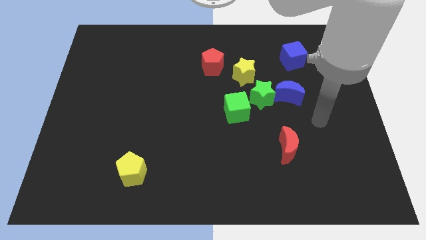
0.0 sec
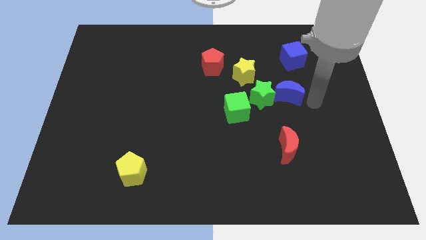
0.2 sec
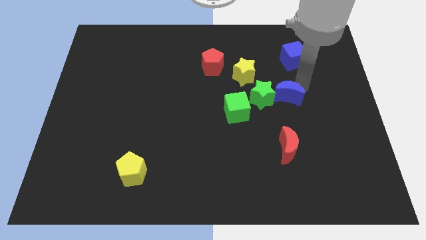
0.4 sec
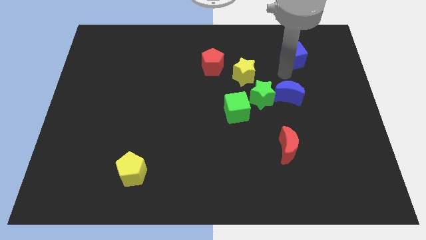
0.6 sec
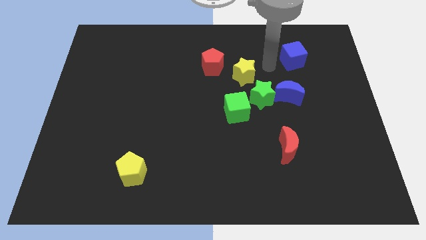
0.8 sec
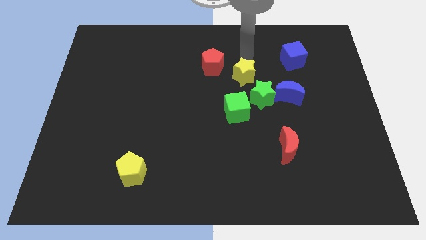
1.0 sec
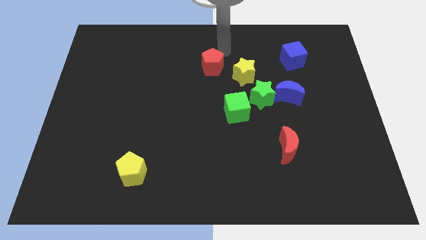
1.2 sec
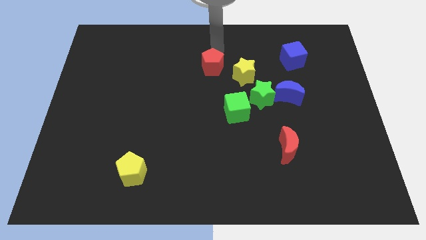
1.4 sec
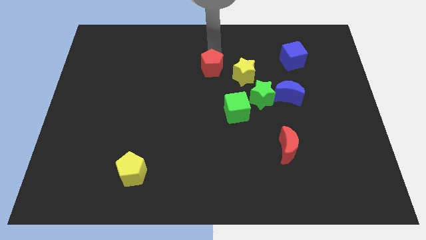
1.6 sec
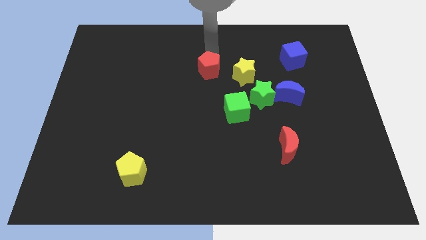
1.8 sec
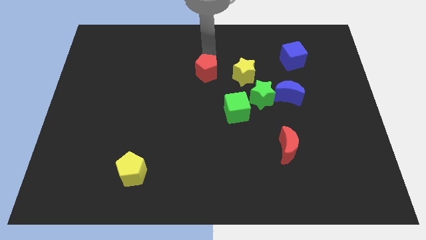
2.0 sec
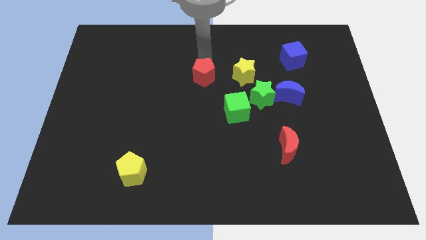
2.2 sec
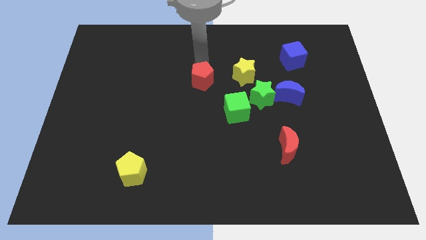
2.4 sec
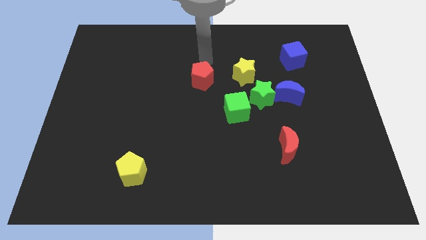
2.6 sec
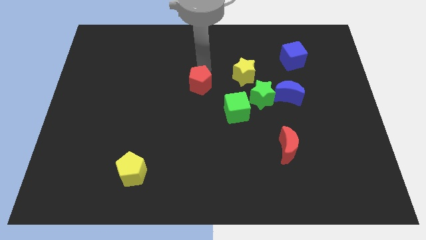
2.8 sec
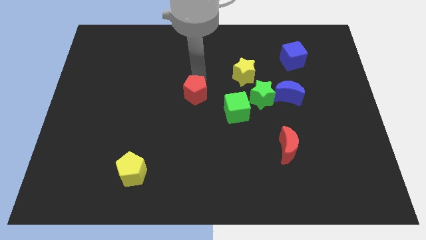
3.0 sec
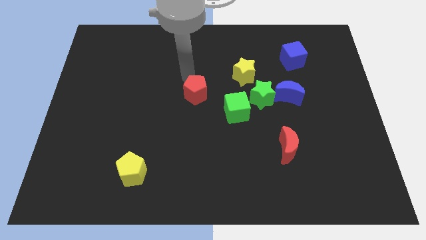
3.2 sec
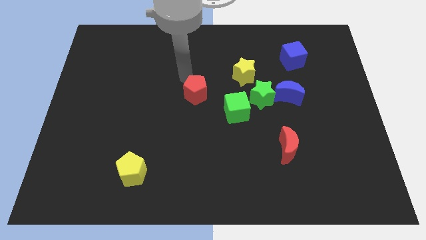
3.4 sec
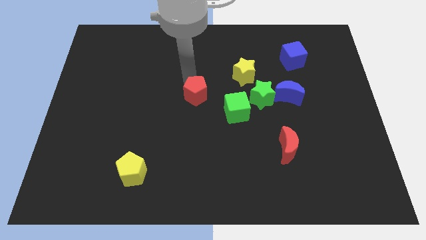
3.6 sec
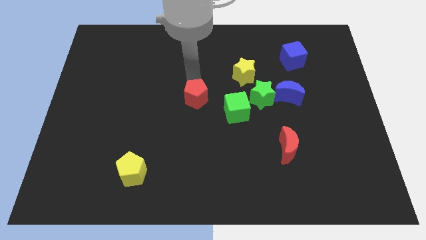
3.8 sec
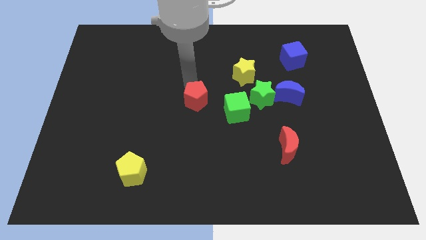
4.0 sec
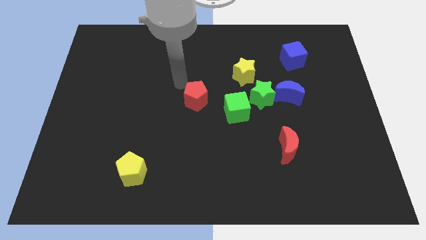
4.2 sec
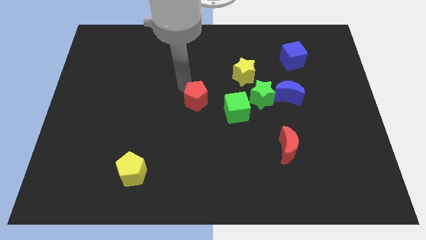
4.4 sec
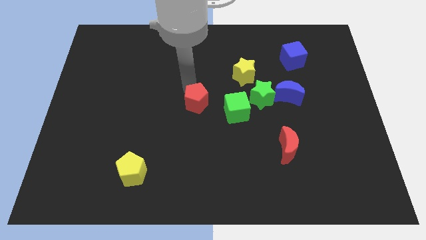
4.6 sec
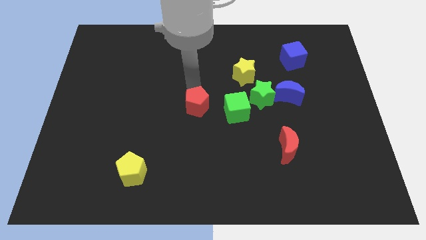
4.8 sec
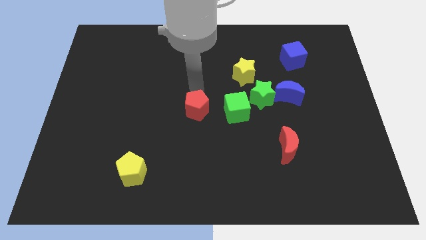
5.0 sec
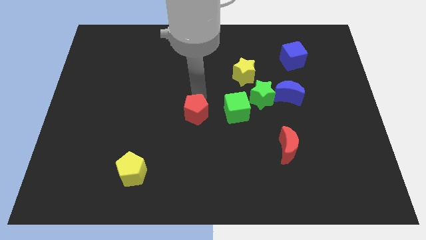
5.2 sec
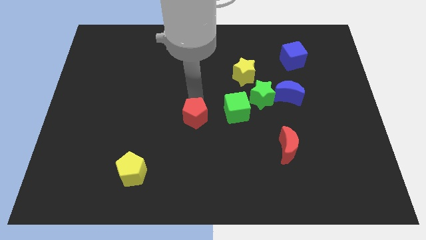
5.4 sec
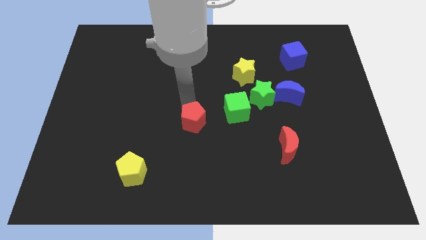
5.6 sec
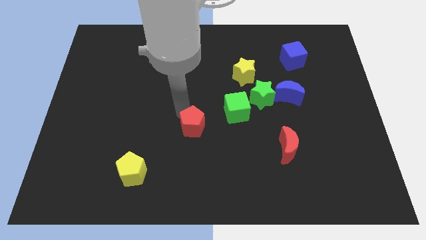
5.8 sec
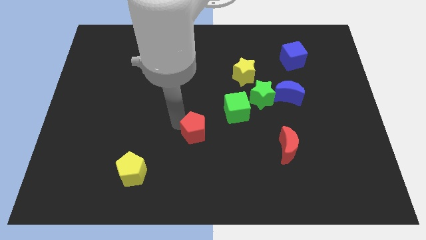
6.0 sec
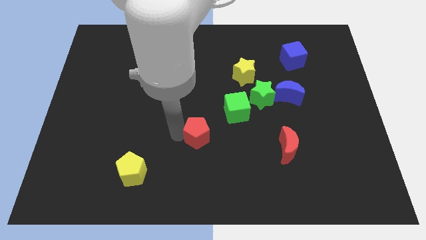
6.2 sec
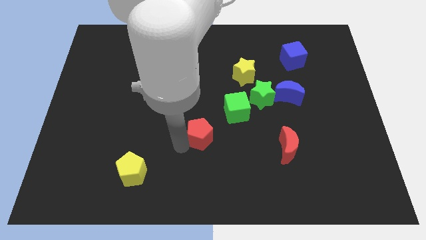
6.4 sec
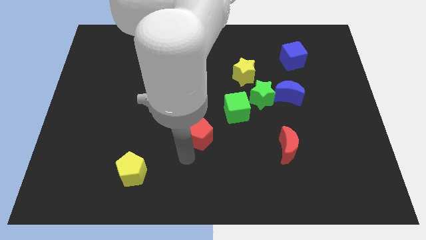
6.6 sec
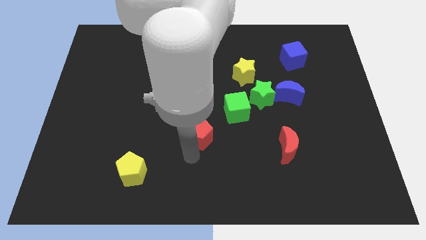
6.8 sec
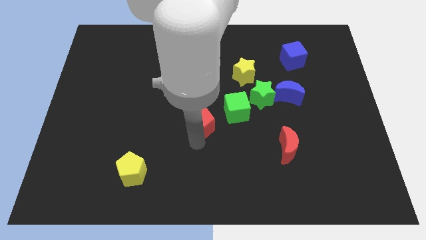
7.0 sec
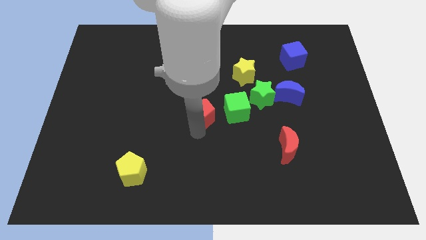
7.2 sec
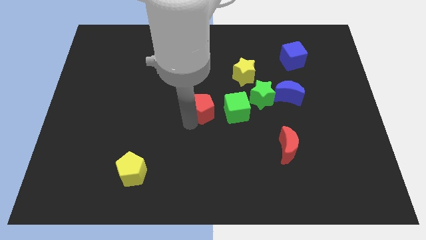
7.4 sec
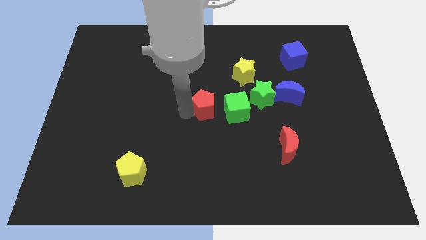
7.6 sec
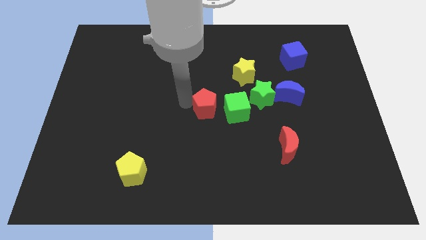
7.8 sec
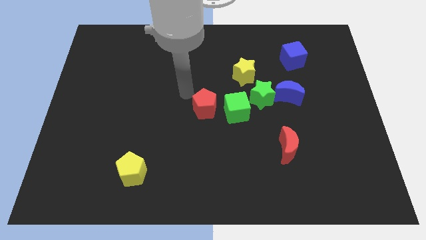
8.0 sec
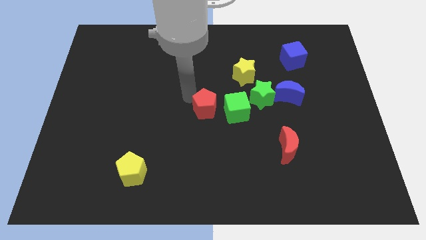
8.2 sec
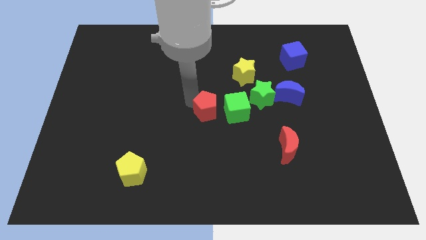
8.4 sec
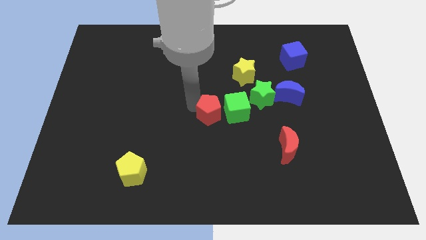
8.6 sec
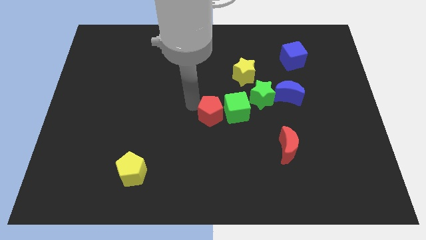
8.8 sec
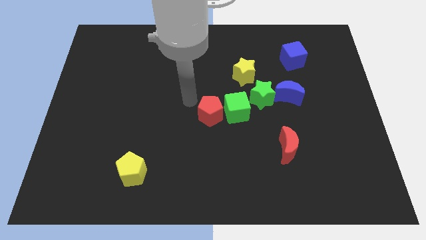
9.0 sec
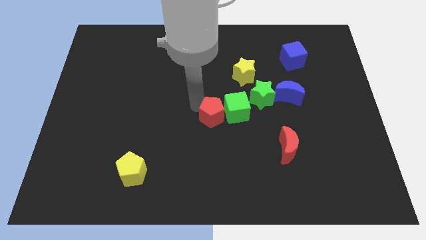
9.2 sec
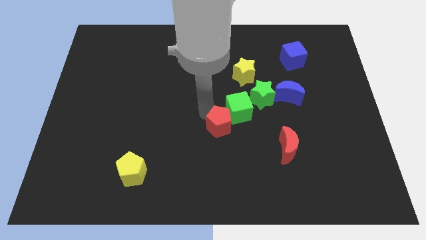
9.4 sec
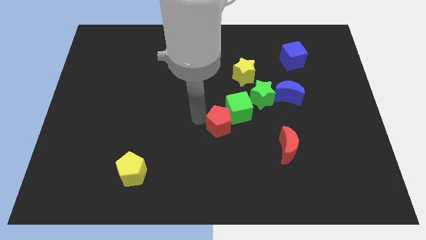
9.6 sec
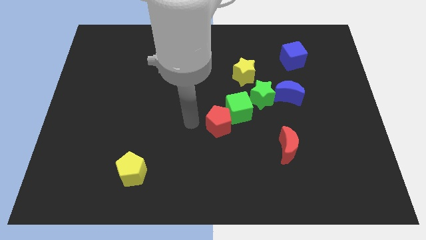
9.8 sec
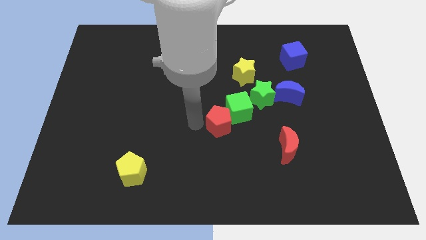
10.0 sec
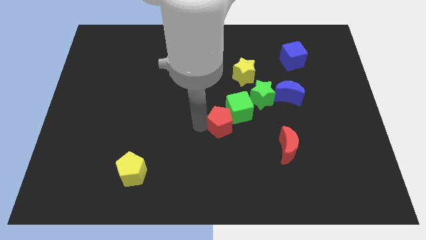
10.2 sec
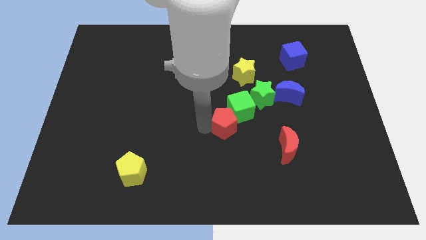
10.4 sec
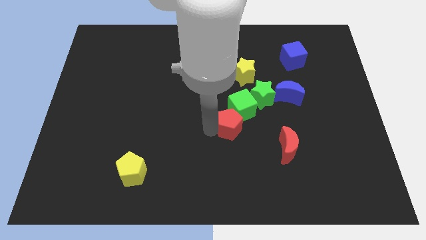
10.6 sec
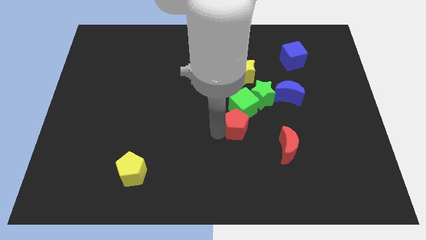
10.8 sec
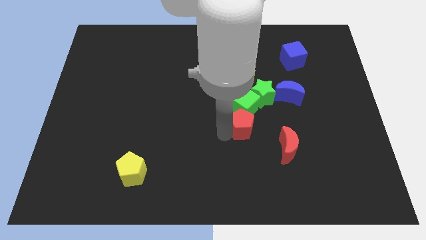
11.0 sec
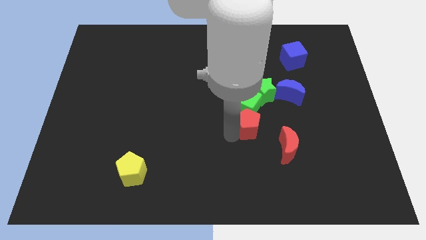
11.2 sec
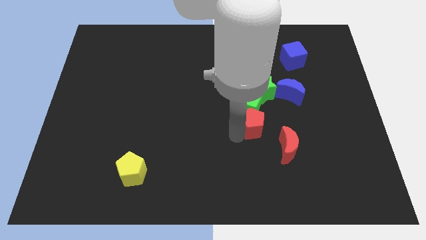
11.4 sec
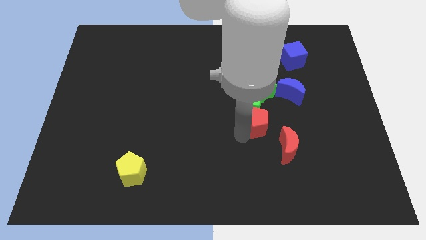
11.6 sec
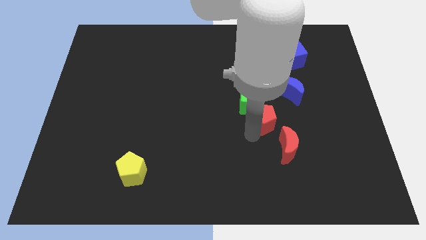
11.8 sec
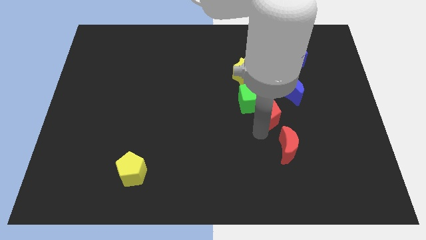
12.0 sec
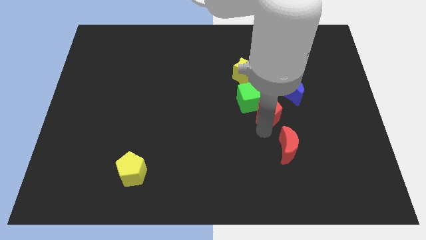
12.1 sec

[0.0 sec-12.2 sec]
put the red pentagon to the right side of the green cube

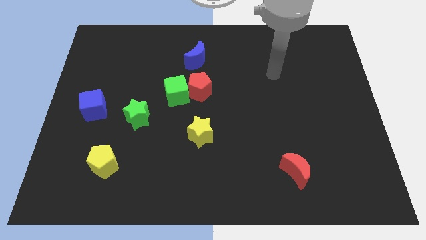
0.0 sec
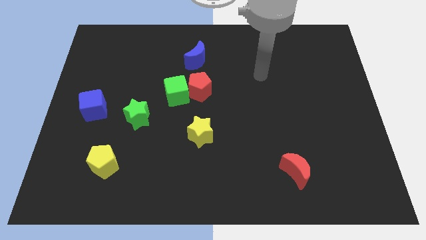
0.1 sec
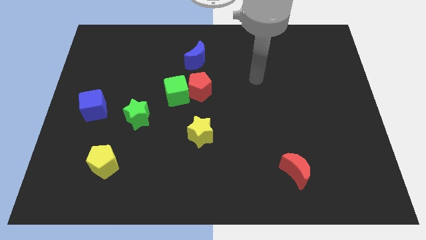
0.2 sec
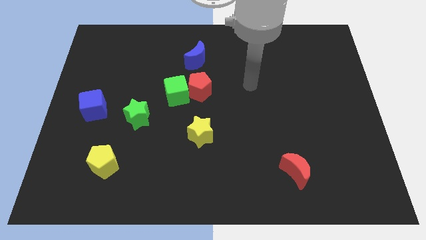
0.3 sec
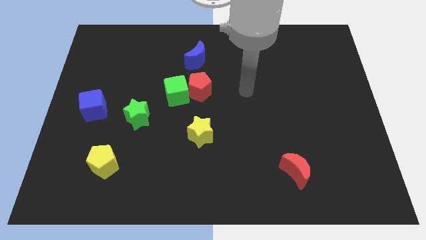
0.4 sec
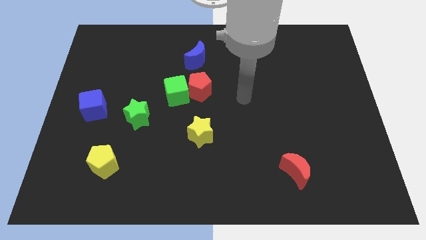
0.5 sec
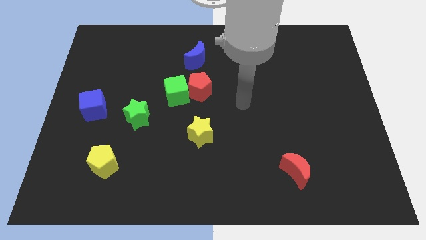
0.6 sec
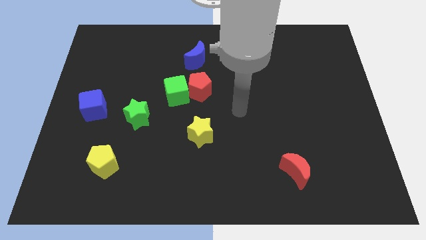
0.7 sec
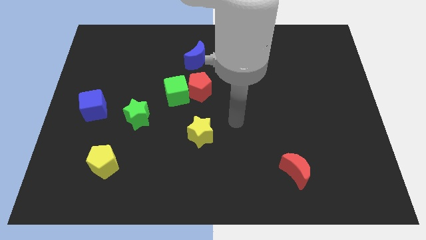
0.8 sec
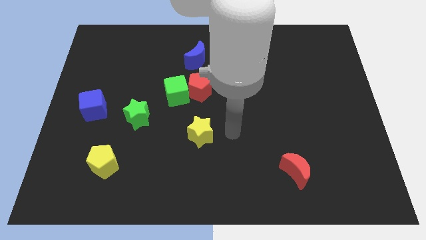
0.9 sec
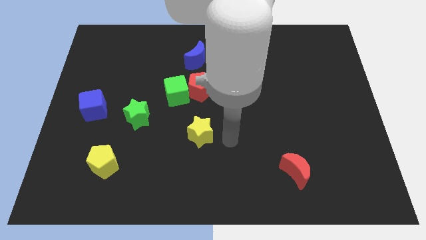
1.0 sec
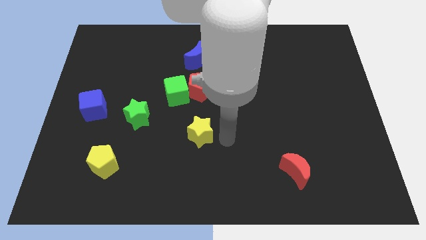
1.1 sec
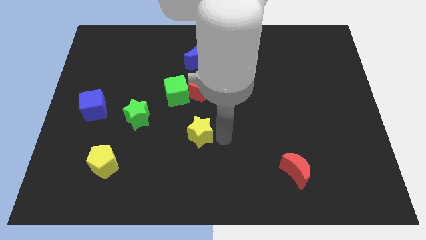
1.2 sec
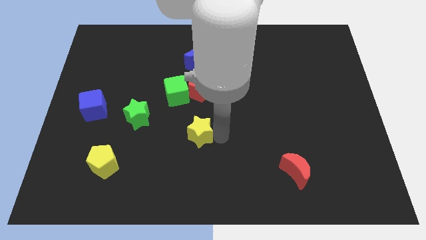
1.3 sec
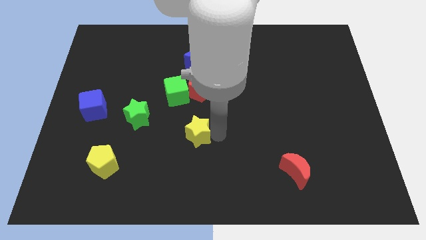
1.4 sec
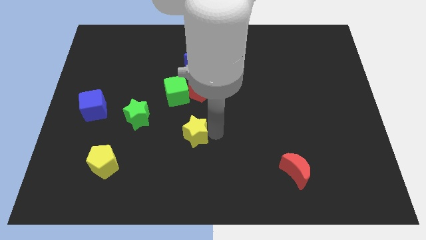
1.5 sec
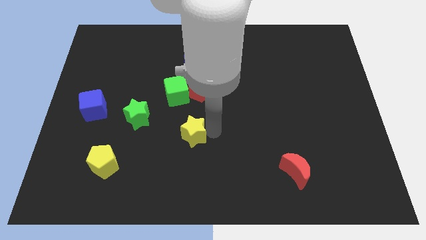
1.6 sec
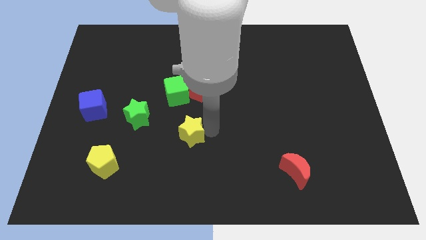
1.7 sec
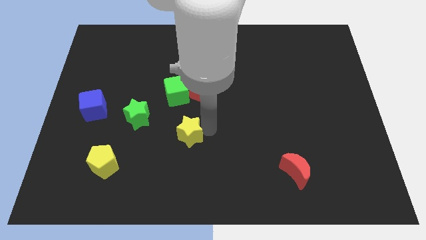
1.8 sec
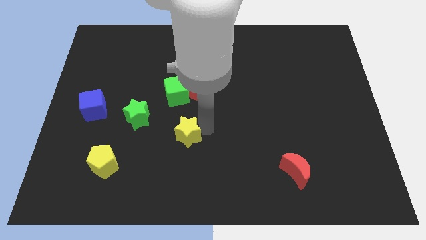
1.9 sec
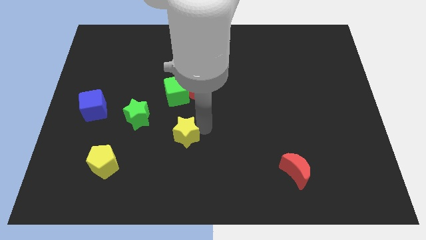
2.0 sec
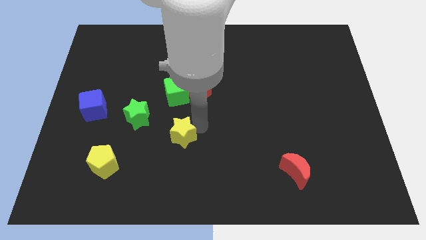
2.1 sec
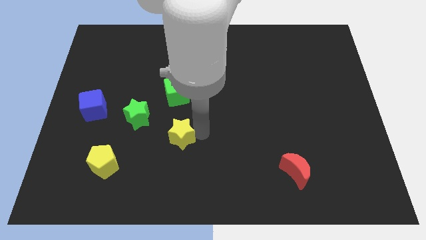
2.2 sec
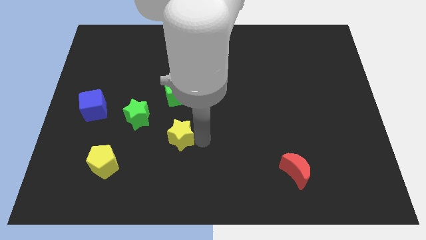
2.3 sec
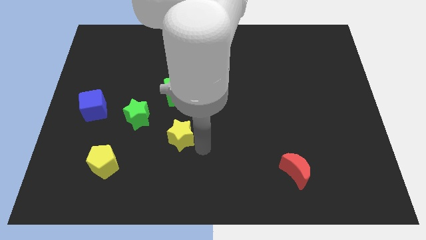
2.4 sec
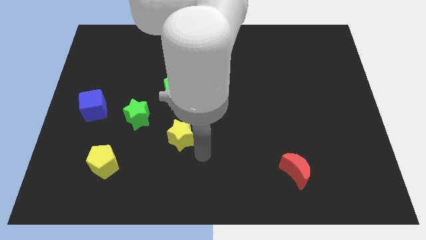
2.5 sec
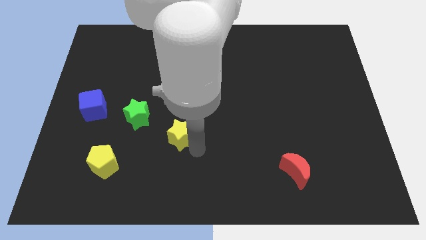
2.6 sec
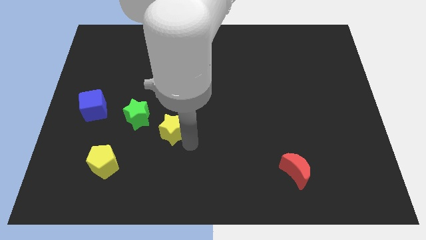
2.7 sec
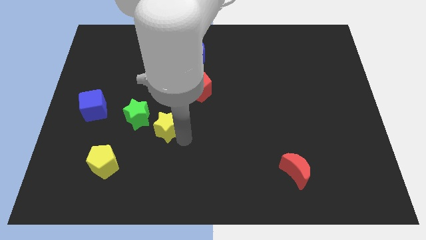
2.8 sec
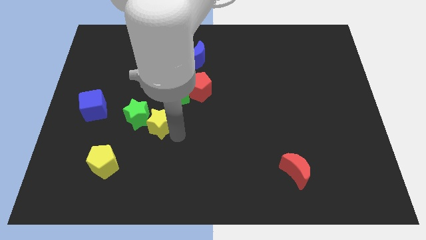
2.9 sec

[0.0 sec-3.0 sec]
push the yellow star diagonally down and to the left of the green cube
